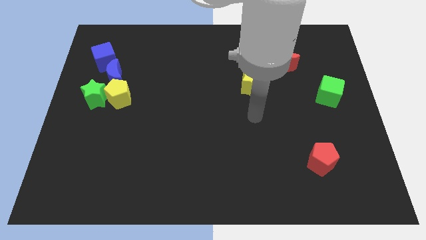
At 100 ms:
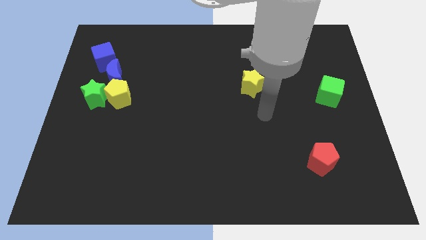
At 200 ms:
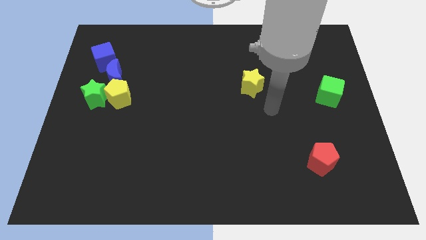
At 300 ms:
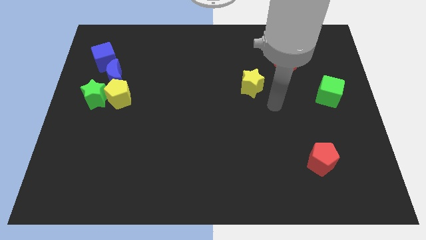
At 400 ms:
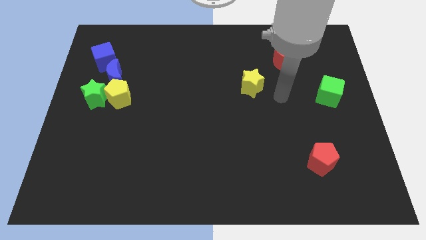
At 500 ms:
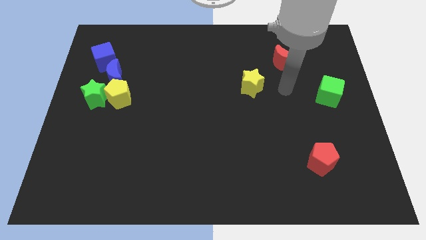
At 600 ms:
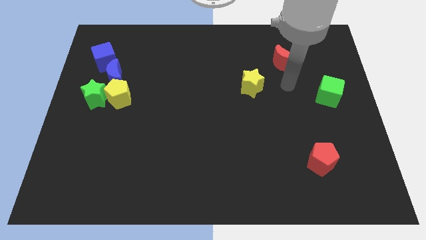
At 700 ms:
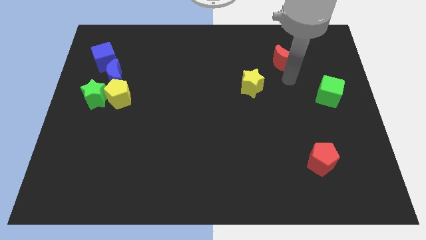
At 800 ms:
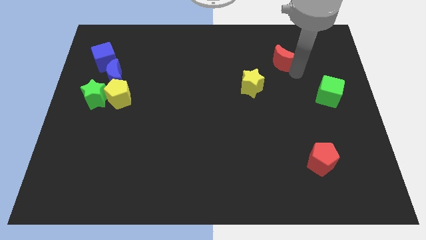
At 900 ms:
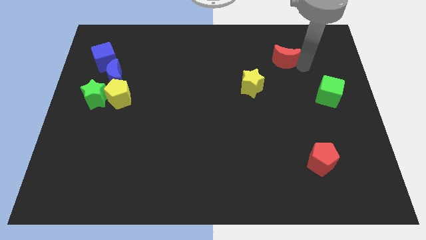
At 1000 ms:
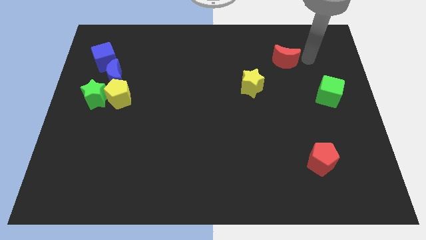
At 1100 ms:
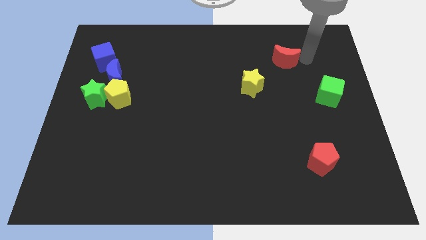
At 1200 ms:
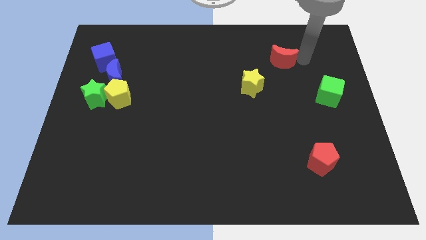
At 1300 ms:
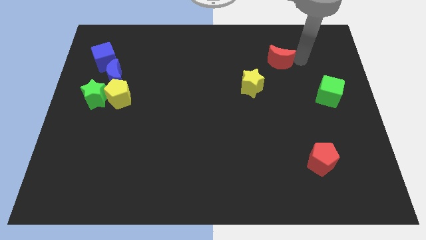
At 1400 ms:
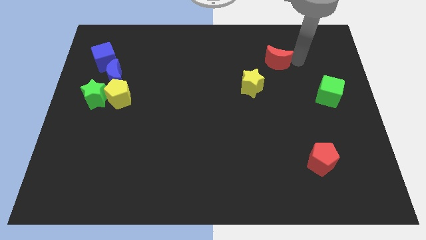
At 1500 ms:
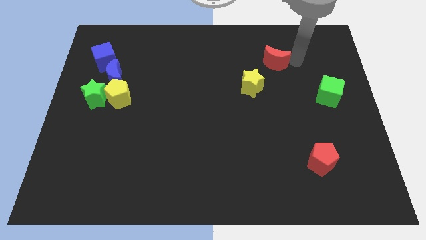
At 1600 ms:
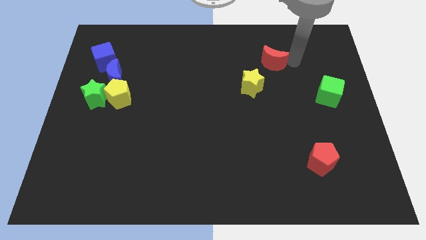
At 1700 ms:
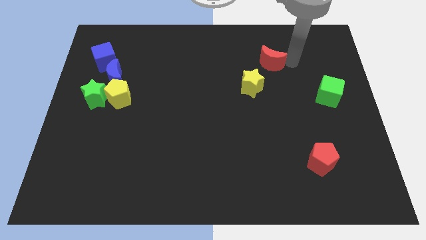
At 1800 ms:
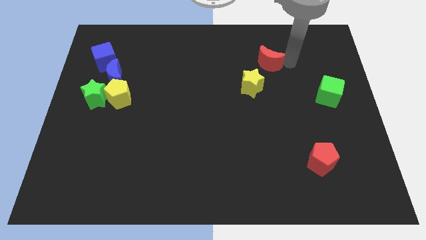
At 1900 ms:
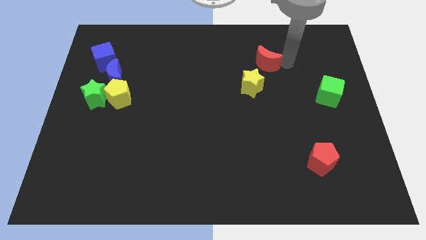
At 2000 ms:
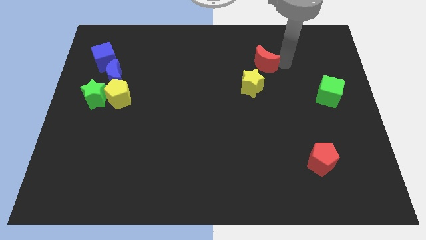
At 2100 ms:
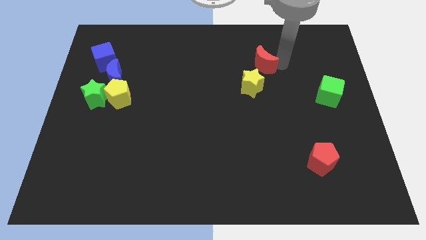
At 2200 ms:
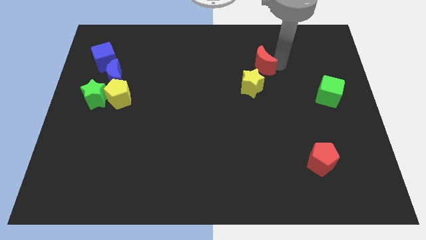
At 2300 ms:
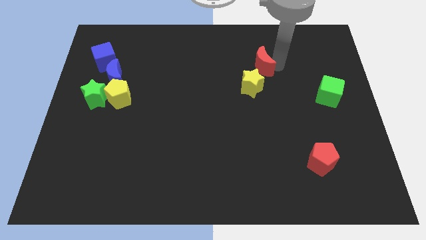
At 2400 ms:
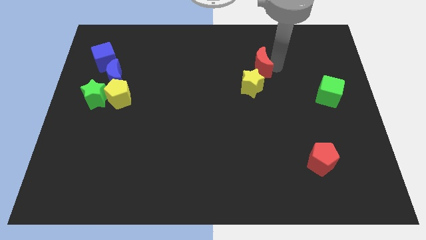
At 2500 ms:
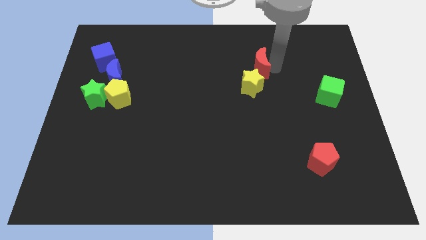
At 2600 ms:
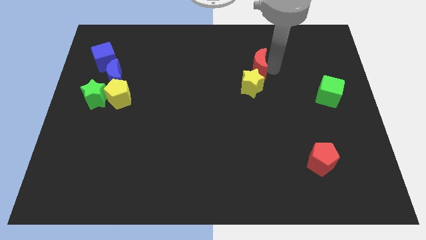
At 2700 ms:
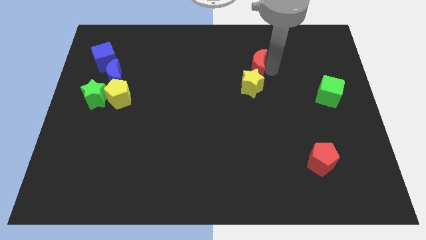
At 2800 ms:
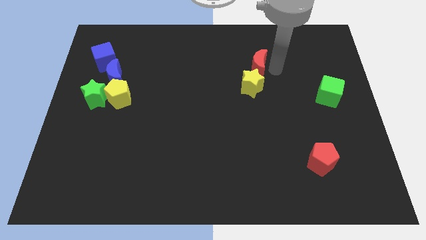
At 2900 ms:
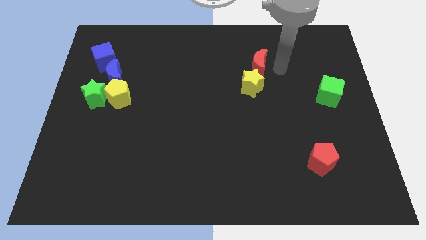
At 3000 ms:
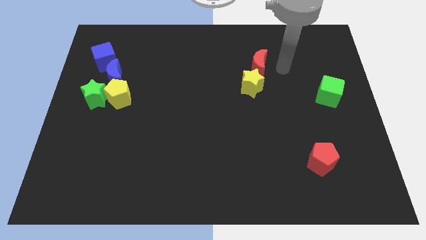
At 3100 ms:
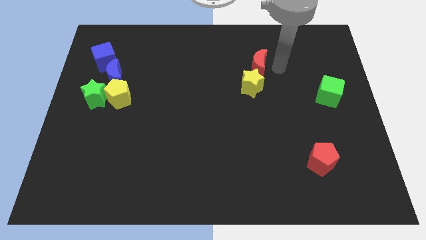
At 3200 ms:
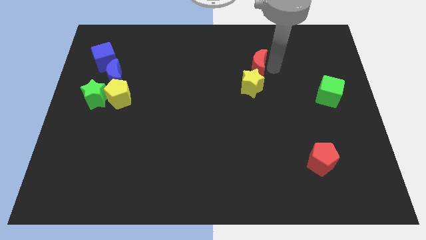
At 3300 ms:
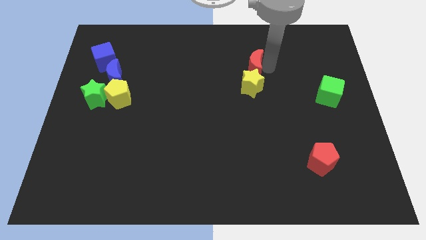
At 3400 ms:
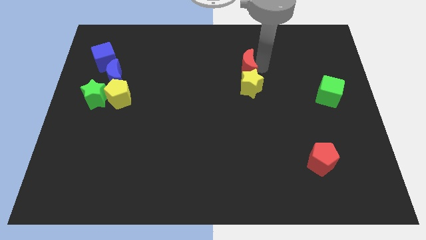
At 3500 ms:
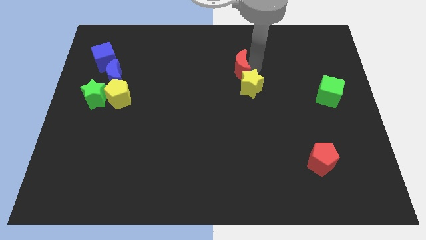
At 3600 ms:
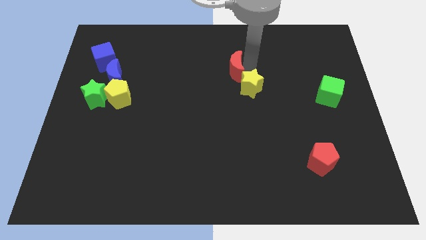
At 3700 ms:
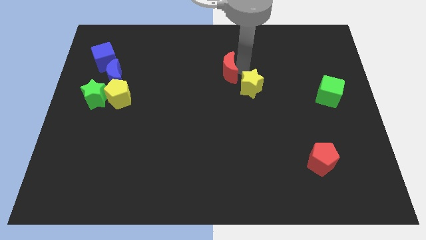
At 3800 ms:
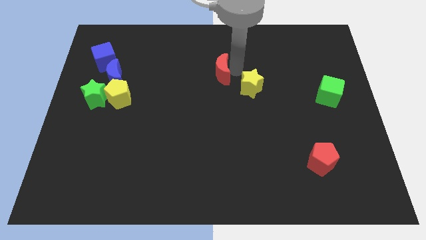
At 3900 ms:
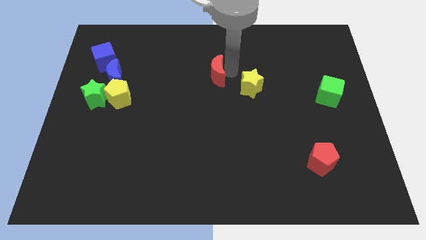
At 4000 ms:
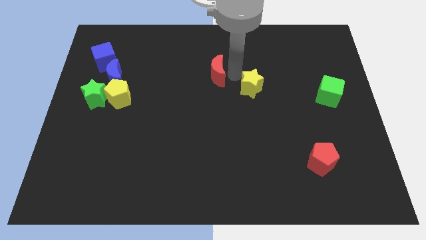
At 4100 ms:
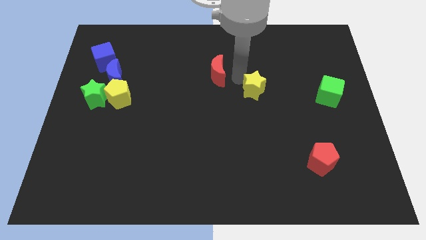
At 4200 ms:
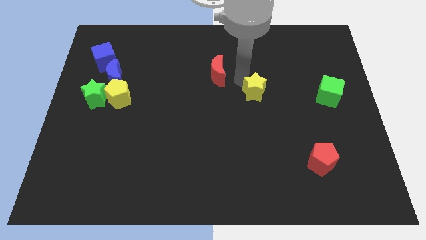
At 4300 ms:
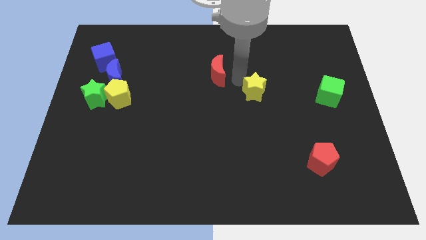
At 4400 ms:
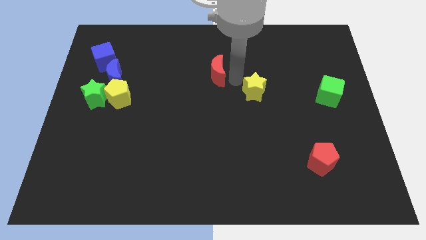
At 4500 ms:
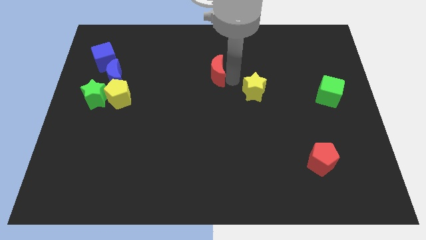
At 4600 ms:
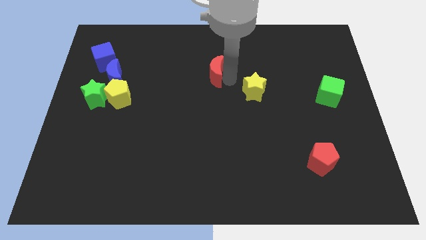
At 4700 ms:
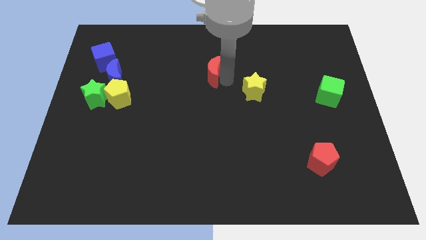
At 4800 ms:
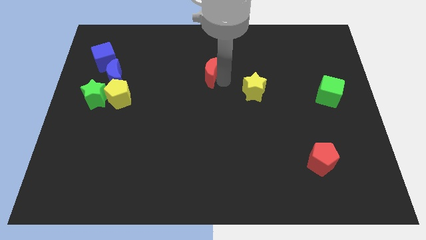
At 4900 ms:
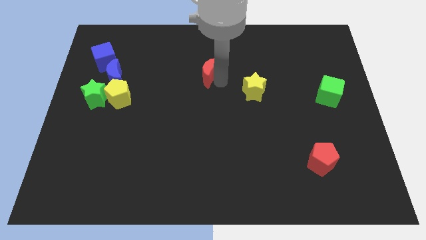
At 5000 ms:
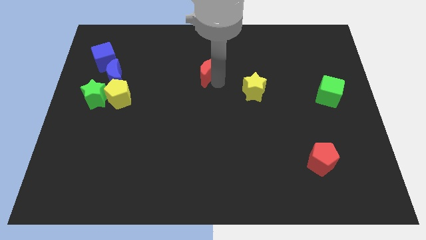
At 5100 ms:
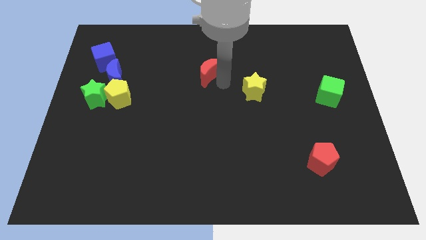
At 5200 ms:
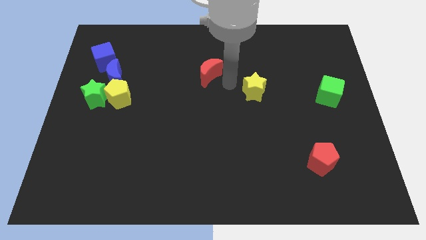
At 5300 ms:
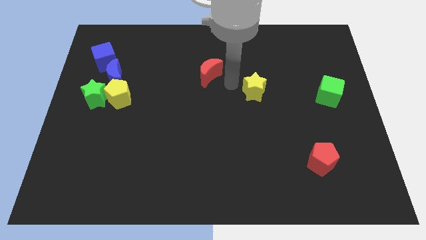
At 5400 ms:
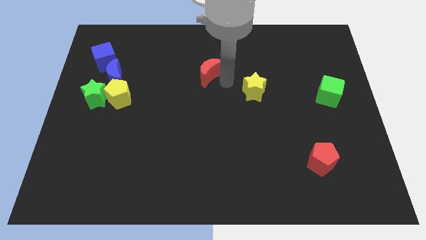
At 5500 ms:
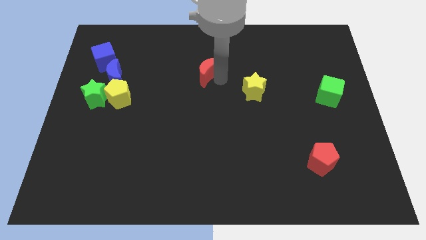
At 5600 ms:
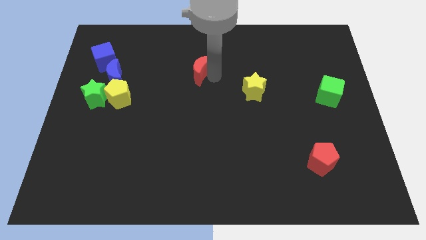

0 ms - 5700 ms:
move the red moon left

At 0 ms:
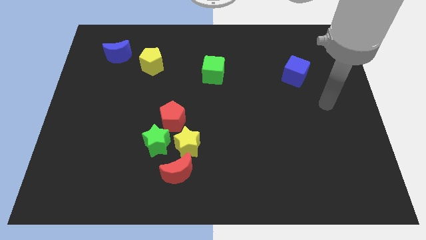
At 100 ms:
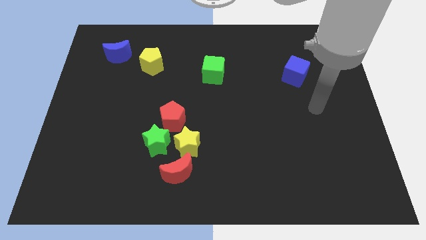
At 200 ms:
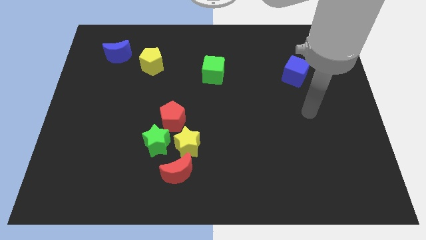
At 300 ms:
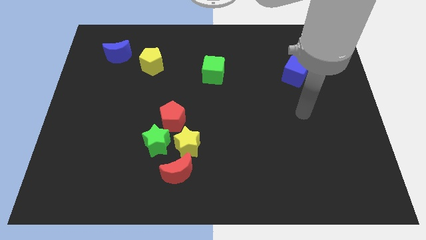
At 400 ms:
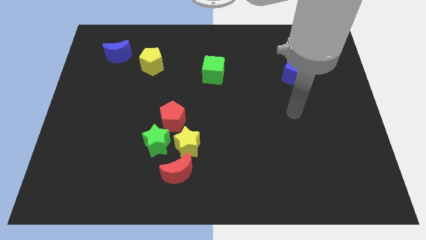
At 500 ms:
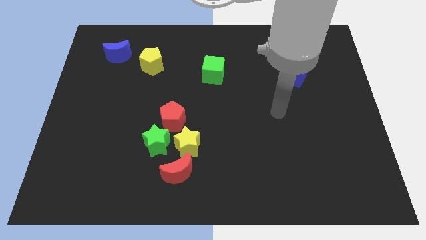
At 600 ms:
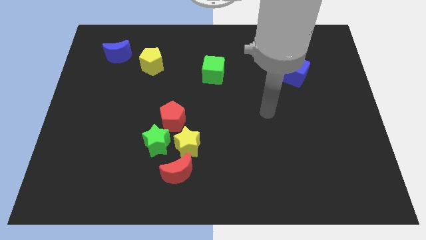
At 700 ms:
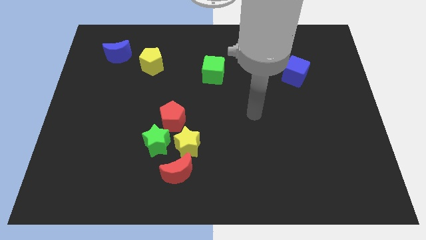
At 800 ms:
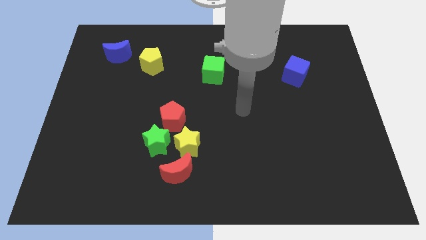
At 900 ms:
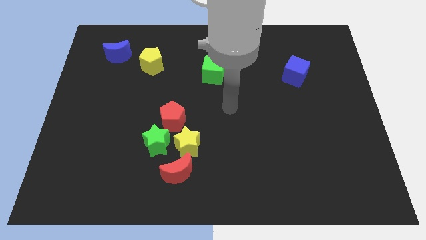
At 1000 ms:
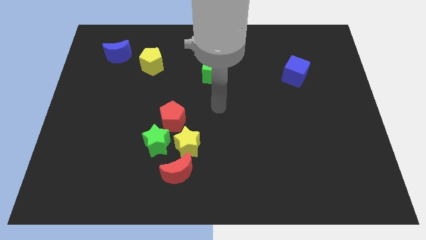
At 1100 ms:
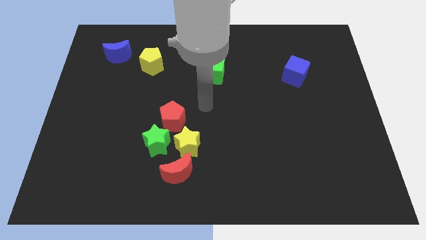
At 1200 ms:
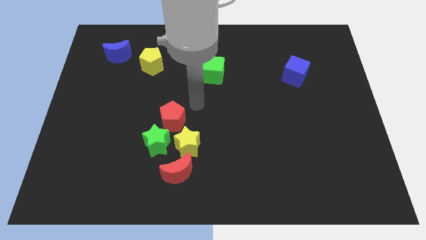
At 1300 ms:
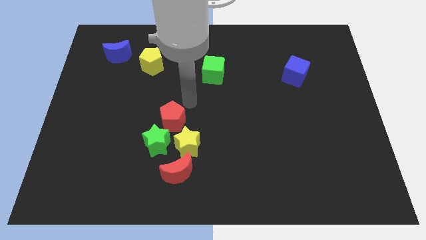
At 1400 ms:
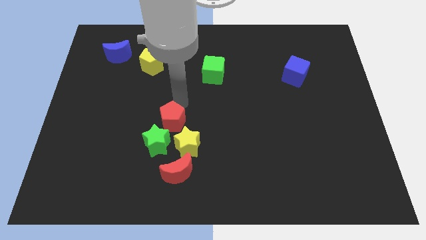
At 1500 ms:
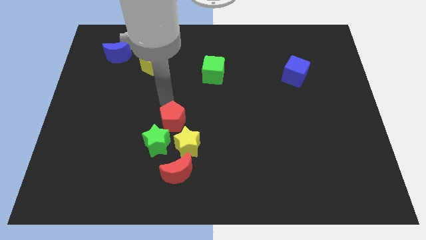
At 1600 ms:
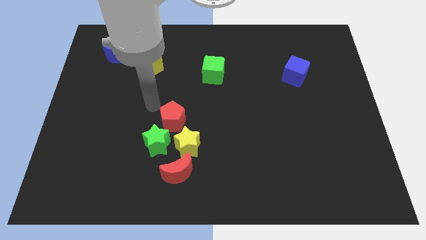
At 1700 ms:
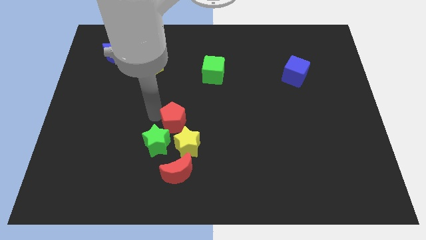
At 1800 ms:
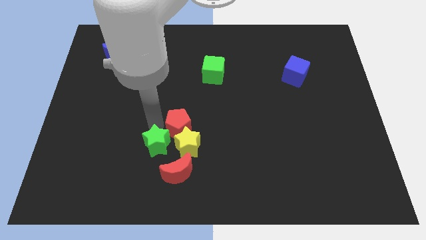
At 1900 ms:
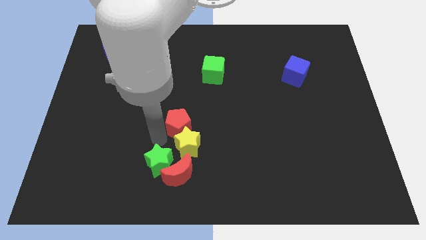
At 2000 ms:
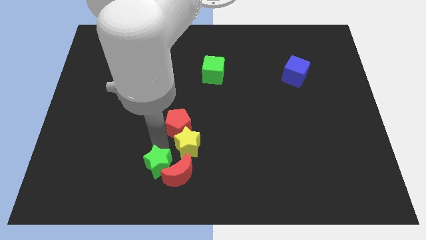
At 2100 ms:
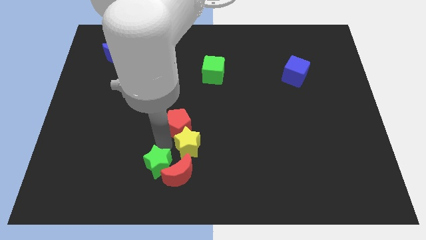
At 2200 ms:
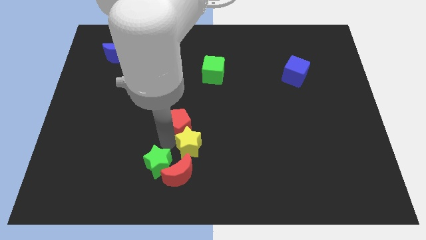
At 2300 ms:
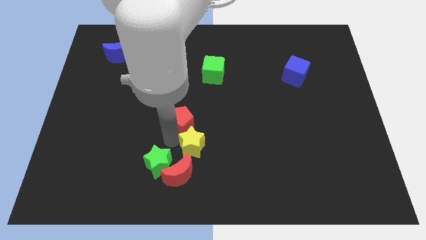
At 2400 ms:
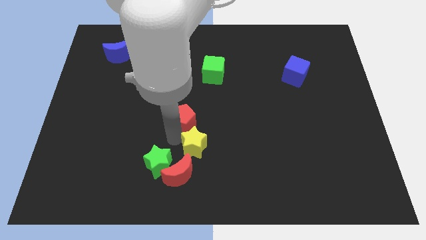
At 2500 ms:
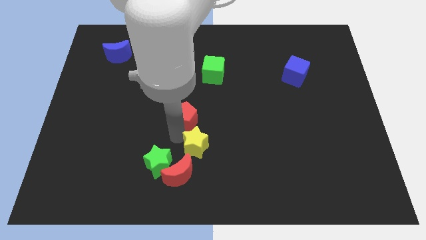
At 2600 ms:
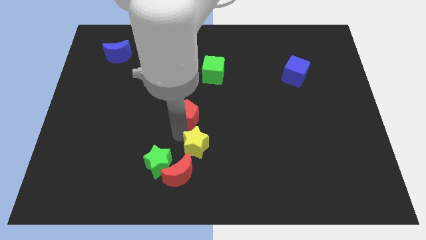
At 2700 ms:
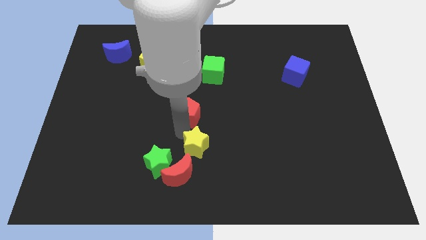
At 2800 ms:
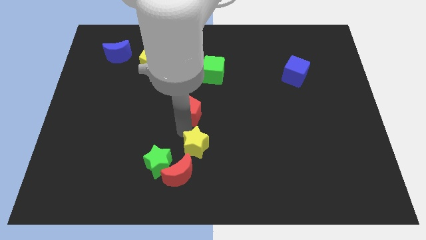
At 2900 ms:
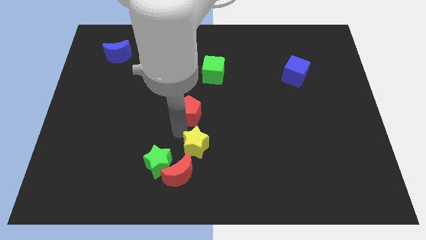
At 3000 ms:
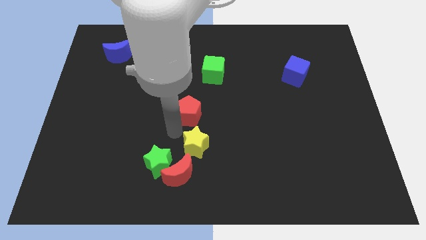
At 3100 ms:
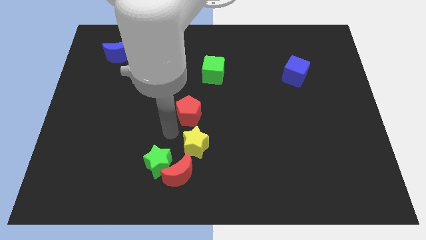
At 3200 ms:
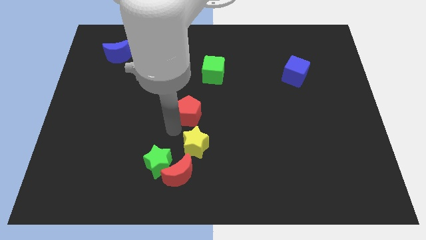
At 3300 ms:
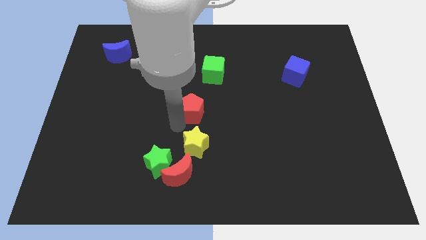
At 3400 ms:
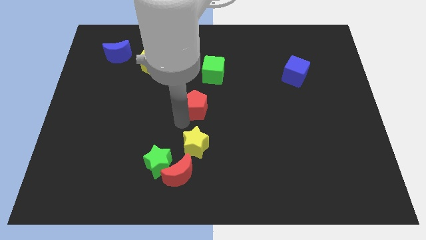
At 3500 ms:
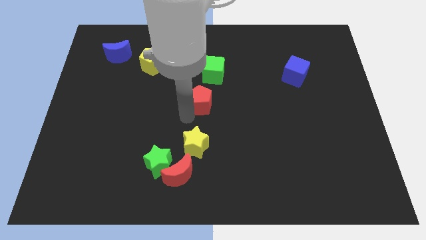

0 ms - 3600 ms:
push the red pentagon upwards and then to the right slightly
